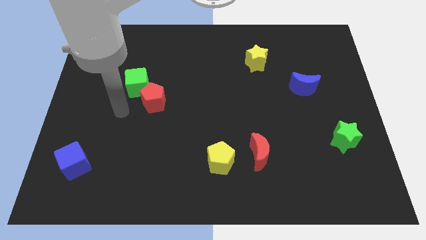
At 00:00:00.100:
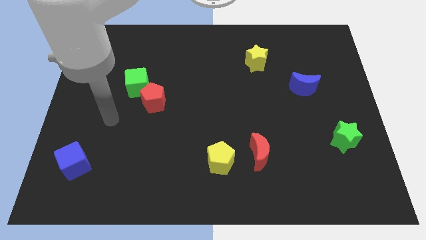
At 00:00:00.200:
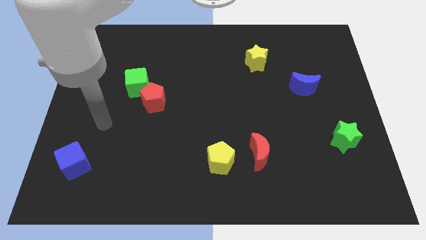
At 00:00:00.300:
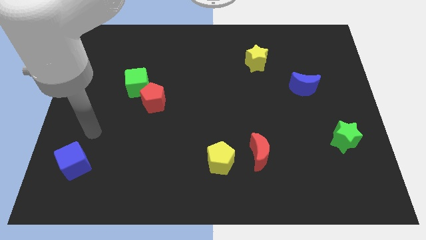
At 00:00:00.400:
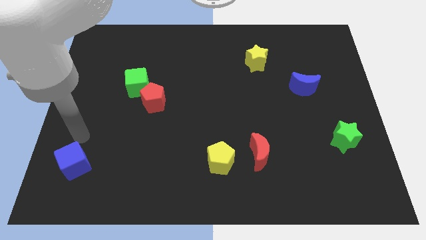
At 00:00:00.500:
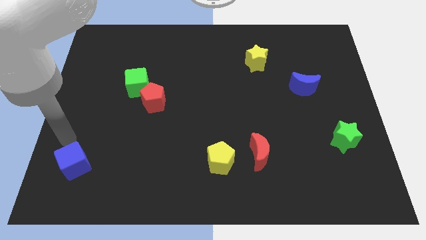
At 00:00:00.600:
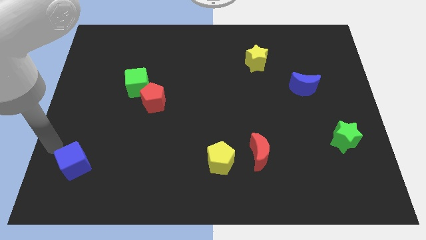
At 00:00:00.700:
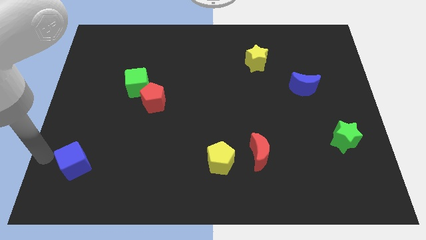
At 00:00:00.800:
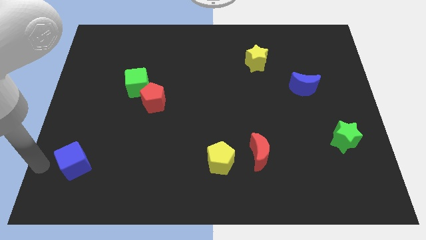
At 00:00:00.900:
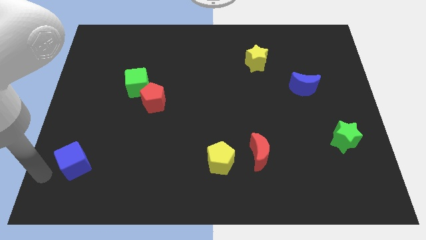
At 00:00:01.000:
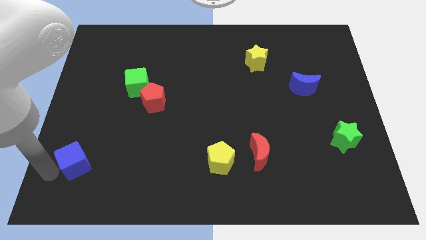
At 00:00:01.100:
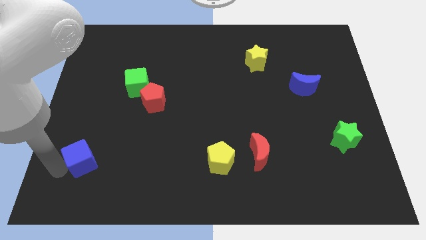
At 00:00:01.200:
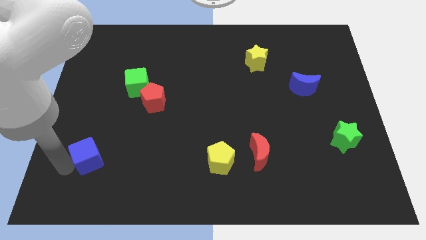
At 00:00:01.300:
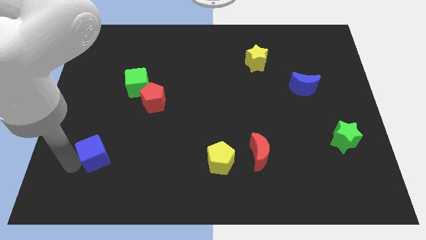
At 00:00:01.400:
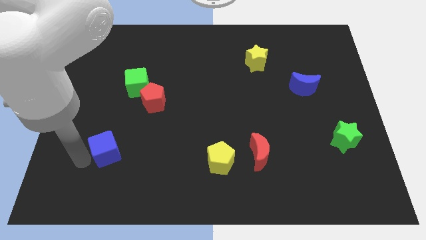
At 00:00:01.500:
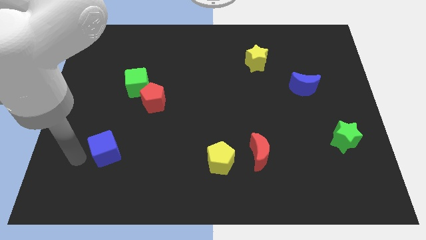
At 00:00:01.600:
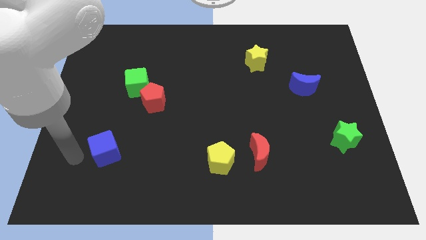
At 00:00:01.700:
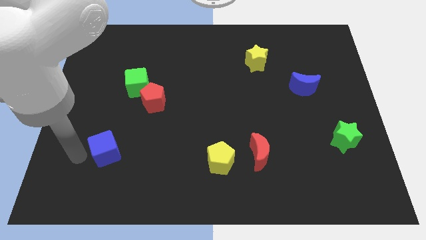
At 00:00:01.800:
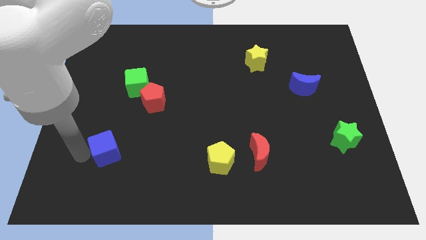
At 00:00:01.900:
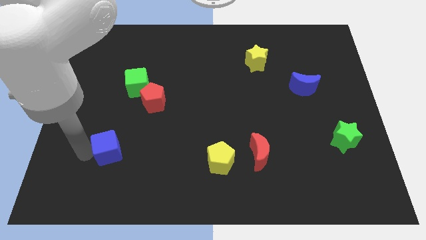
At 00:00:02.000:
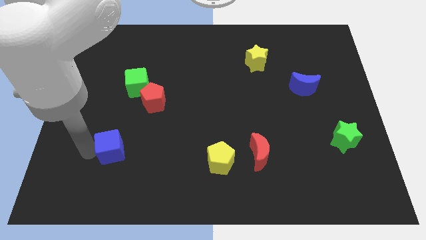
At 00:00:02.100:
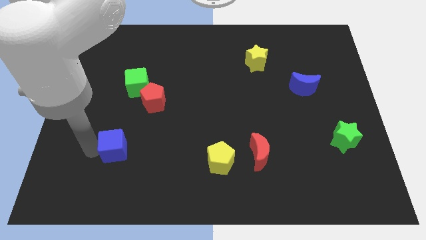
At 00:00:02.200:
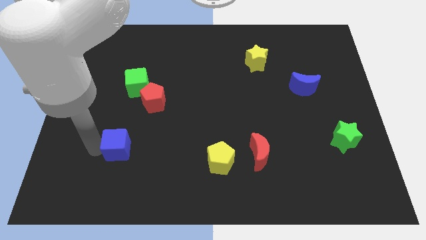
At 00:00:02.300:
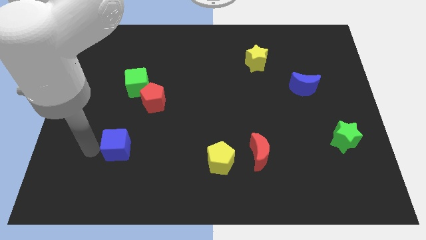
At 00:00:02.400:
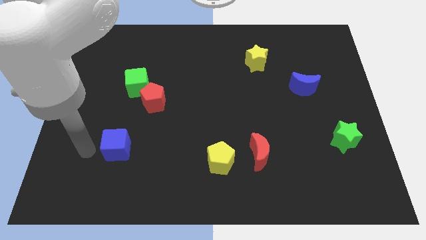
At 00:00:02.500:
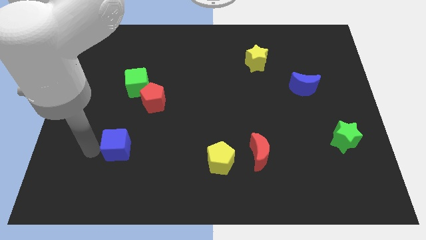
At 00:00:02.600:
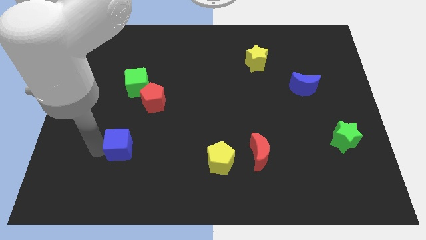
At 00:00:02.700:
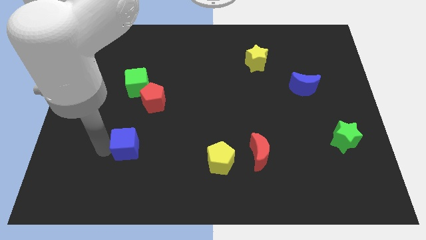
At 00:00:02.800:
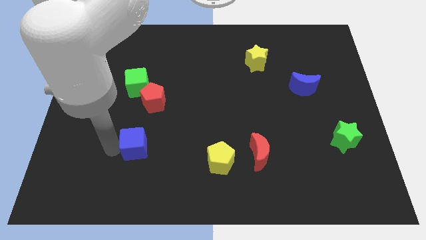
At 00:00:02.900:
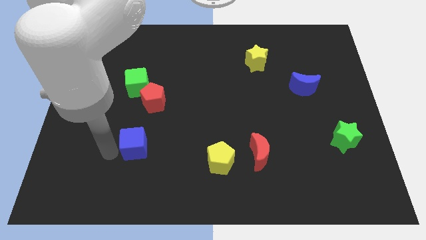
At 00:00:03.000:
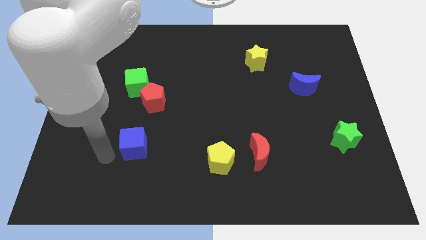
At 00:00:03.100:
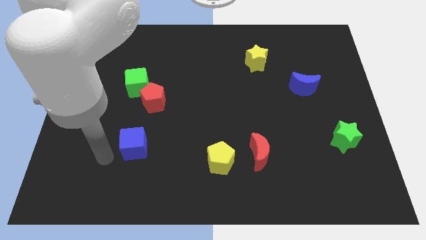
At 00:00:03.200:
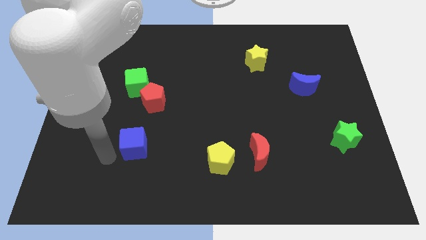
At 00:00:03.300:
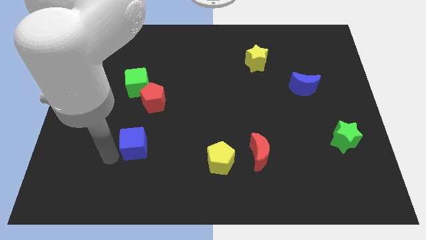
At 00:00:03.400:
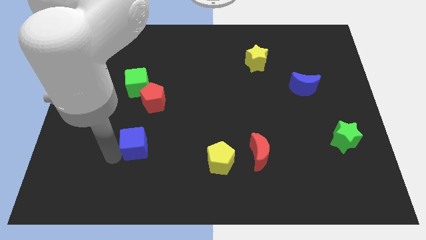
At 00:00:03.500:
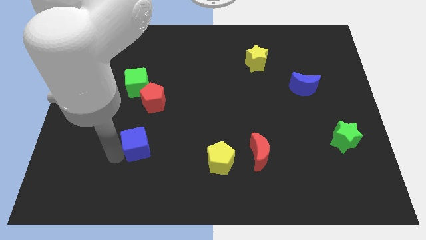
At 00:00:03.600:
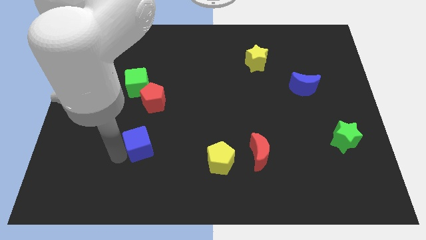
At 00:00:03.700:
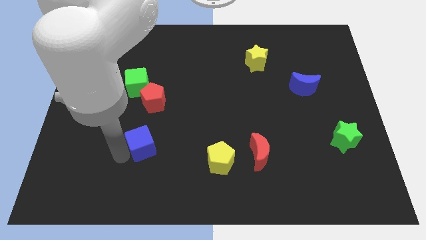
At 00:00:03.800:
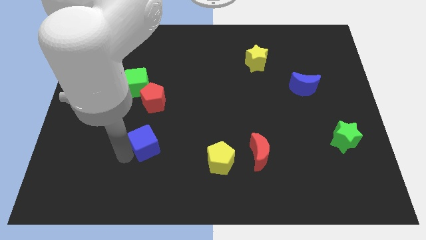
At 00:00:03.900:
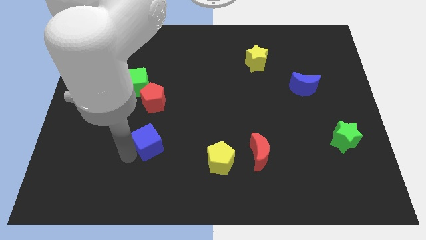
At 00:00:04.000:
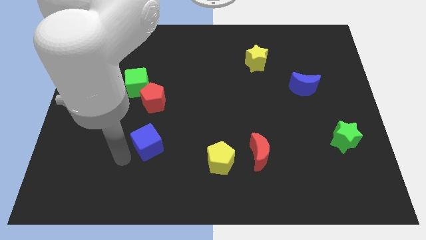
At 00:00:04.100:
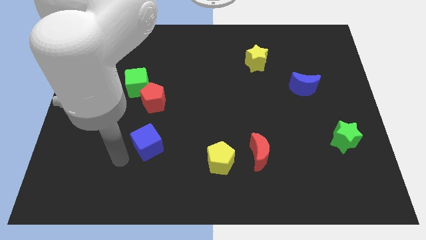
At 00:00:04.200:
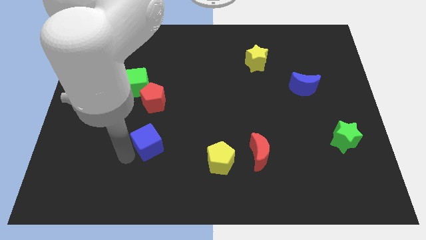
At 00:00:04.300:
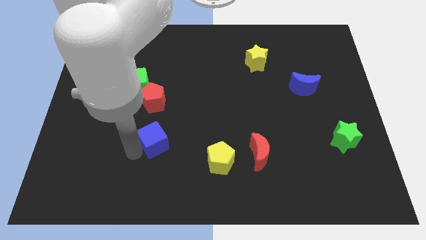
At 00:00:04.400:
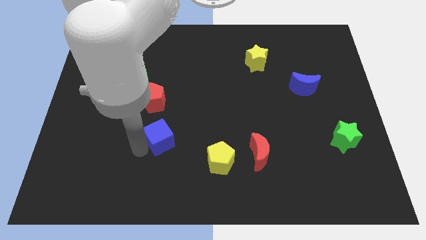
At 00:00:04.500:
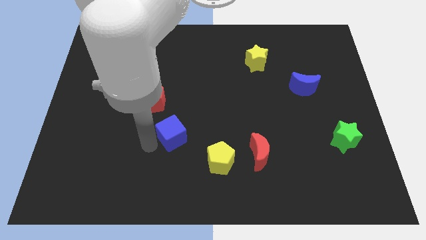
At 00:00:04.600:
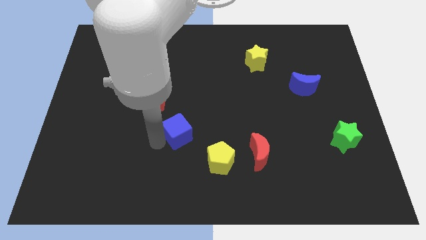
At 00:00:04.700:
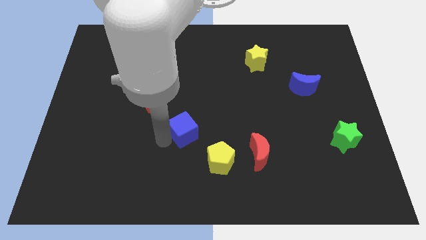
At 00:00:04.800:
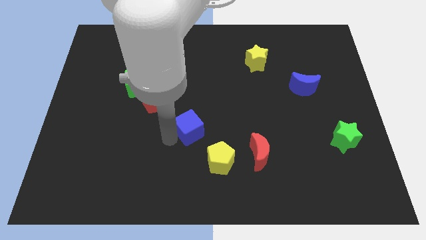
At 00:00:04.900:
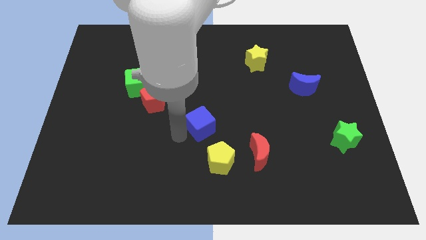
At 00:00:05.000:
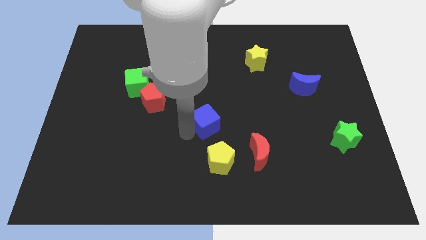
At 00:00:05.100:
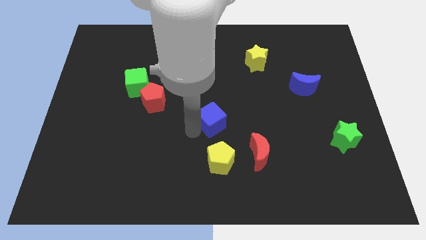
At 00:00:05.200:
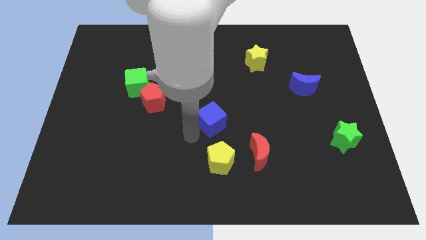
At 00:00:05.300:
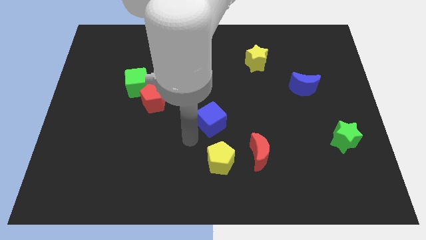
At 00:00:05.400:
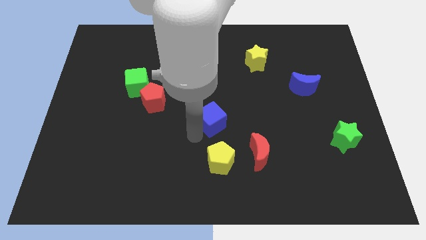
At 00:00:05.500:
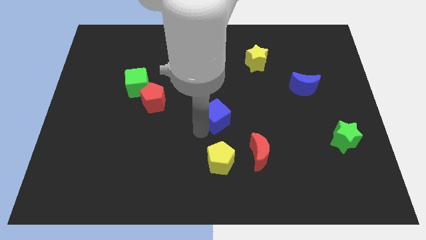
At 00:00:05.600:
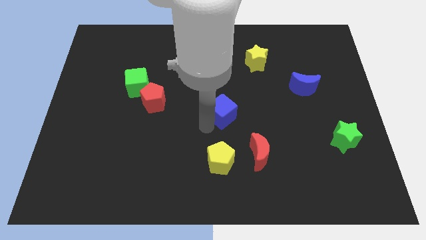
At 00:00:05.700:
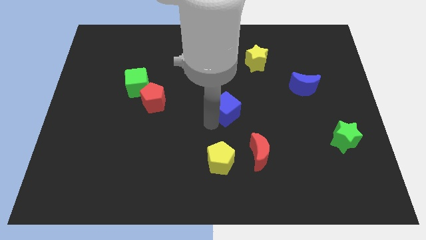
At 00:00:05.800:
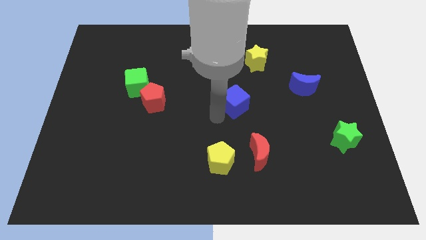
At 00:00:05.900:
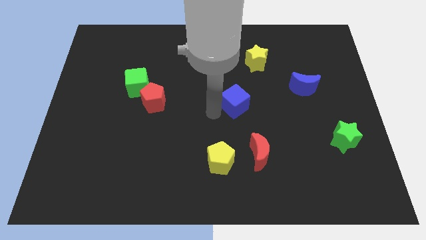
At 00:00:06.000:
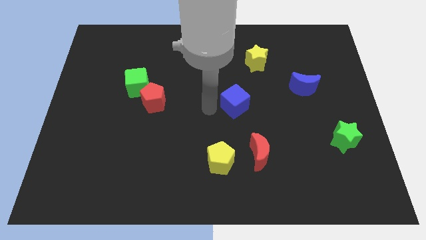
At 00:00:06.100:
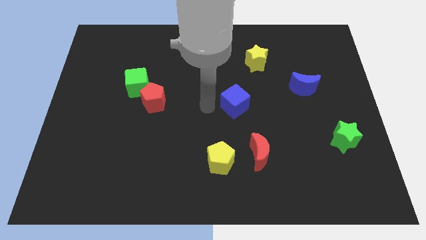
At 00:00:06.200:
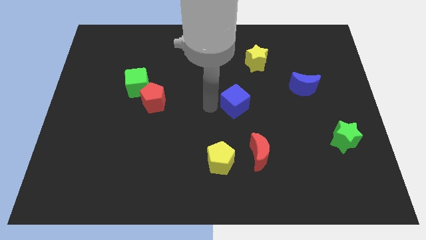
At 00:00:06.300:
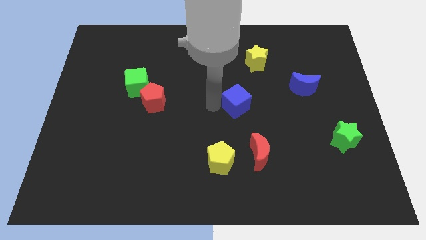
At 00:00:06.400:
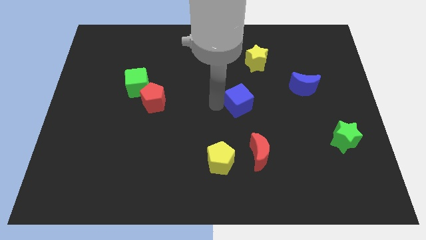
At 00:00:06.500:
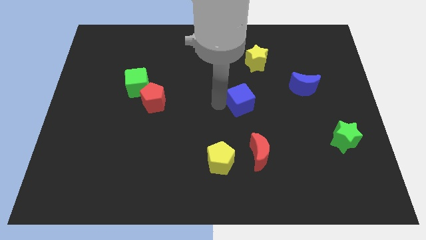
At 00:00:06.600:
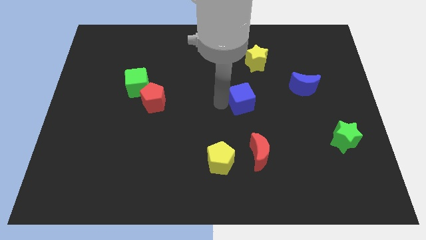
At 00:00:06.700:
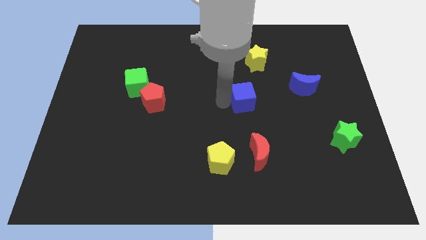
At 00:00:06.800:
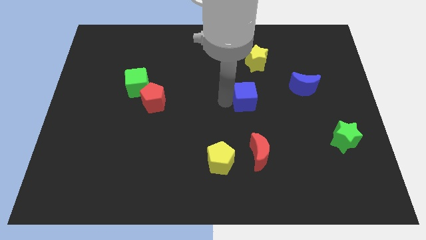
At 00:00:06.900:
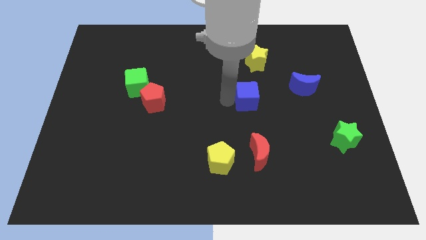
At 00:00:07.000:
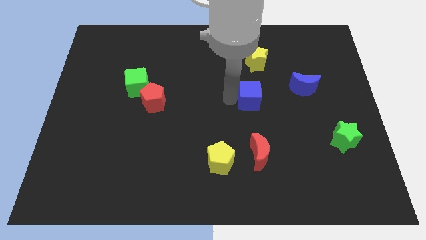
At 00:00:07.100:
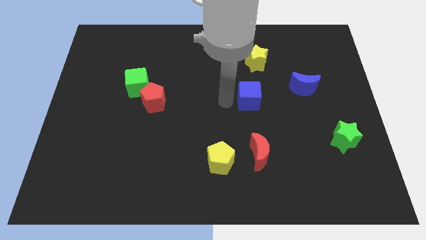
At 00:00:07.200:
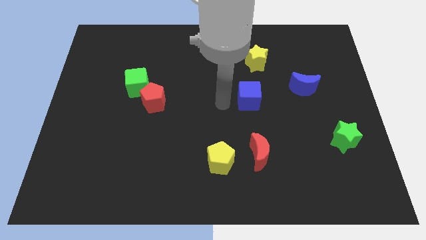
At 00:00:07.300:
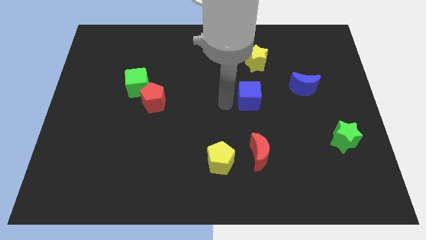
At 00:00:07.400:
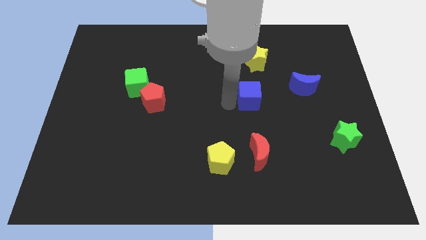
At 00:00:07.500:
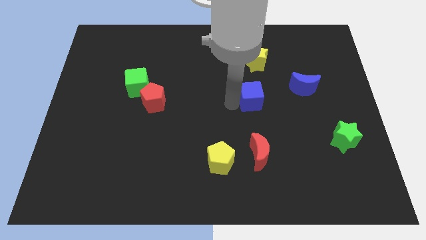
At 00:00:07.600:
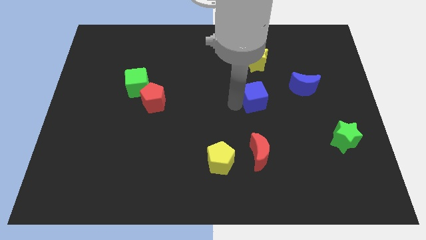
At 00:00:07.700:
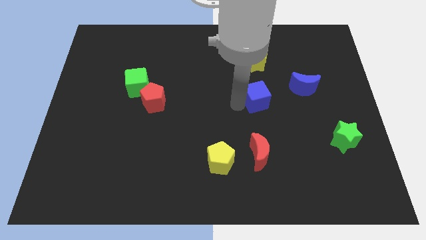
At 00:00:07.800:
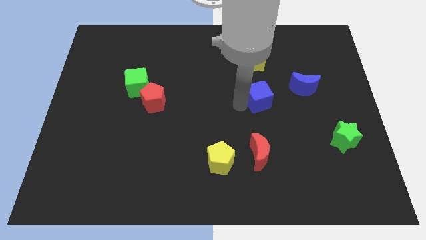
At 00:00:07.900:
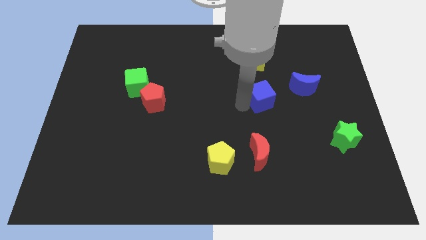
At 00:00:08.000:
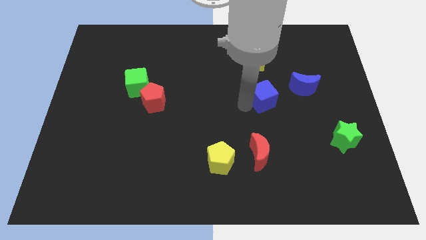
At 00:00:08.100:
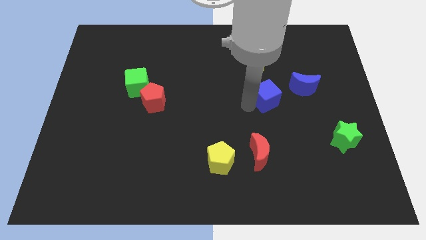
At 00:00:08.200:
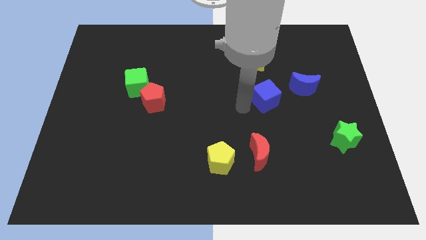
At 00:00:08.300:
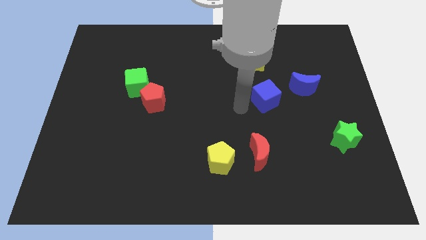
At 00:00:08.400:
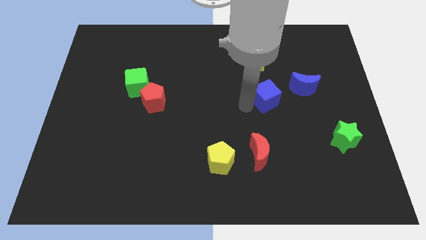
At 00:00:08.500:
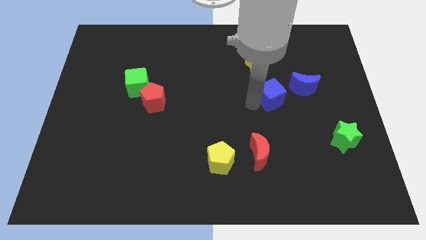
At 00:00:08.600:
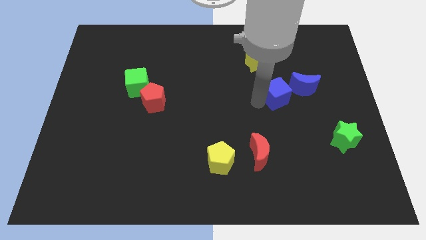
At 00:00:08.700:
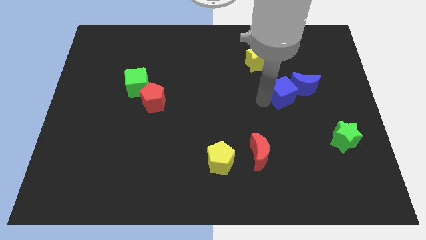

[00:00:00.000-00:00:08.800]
put the blue cube to the blue moon
